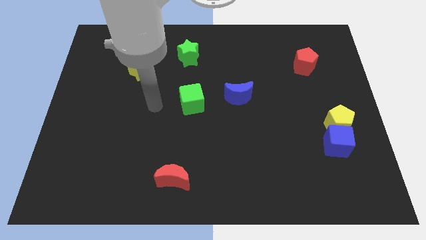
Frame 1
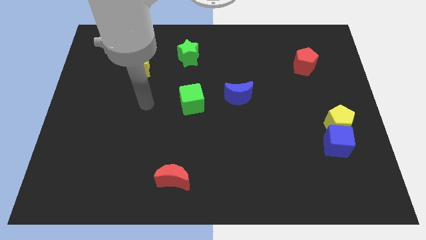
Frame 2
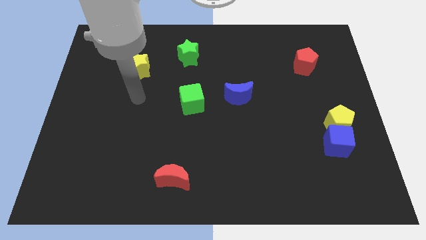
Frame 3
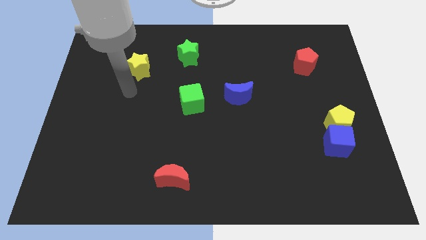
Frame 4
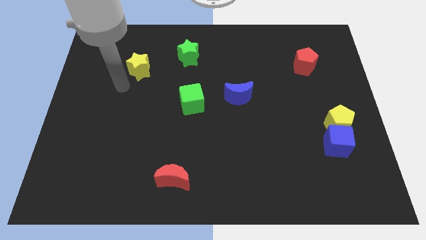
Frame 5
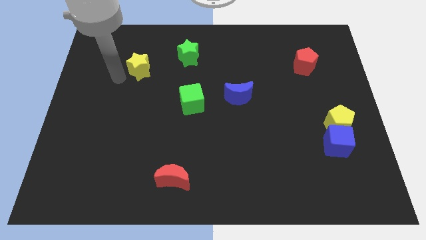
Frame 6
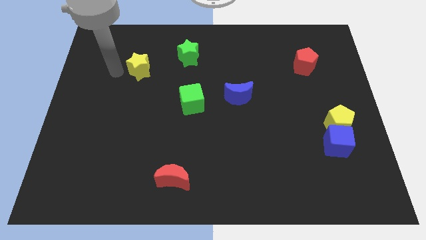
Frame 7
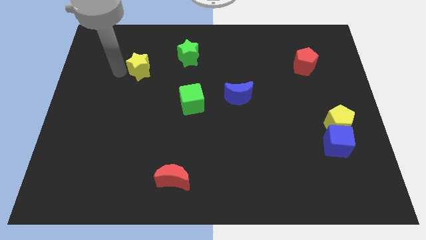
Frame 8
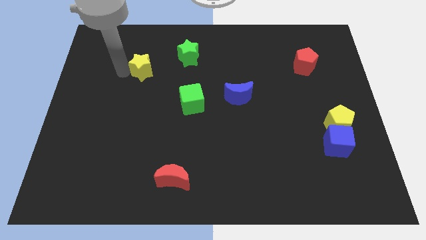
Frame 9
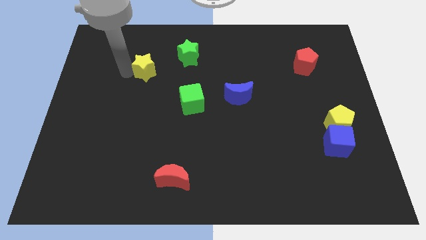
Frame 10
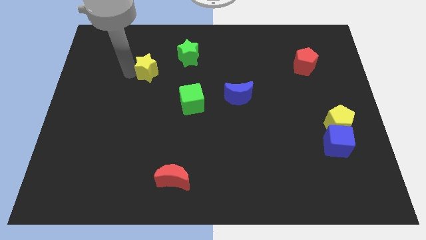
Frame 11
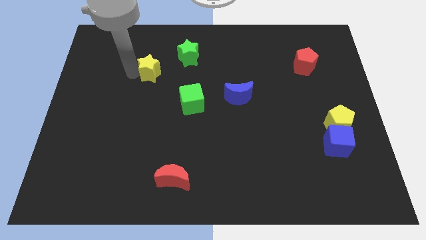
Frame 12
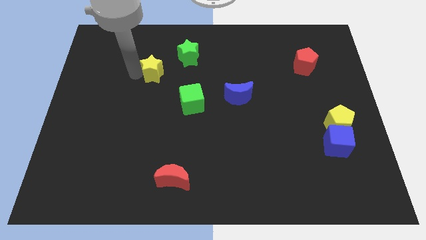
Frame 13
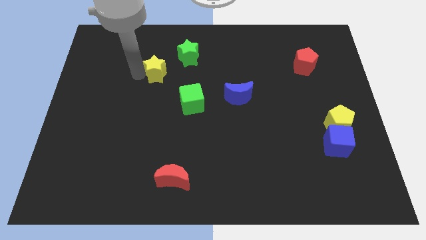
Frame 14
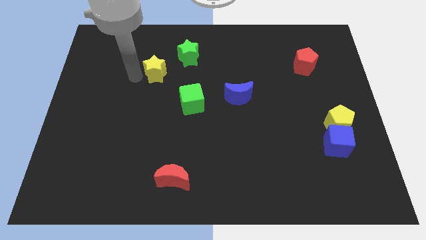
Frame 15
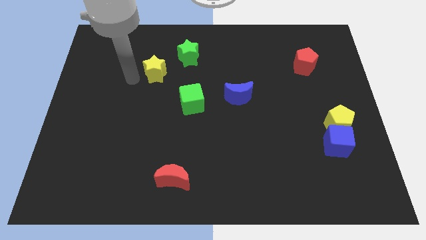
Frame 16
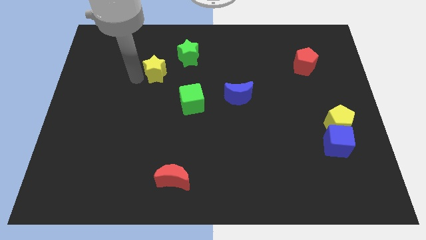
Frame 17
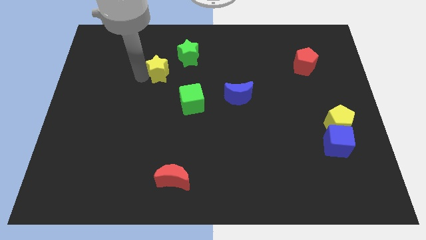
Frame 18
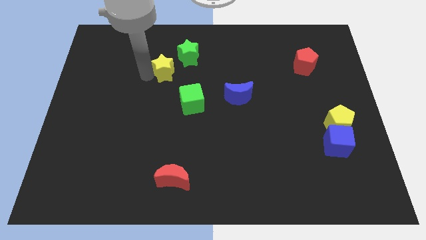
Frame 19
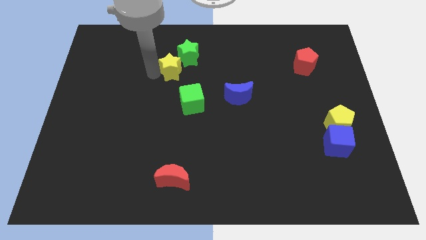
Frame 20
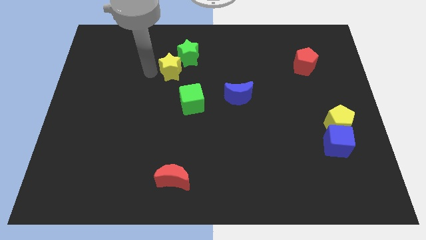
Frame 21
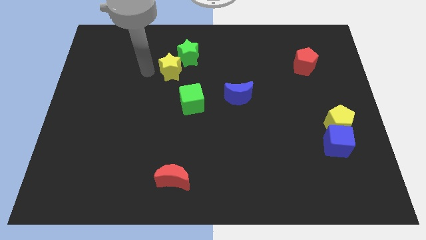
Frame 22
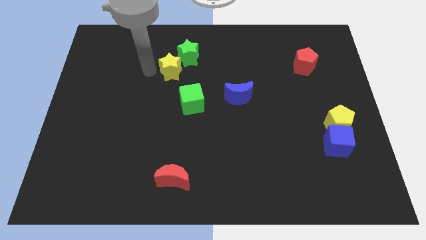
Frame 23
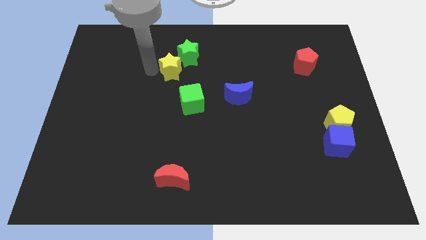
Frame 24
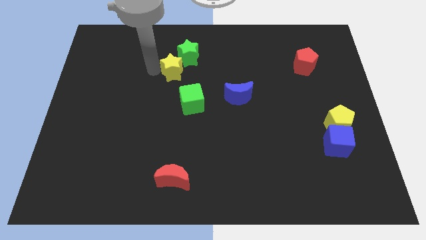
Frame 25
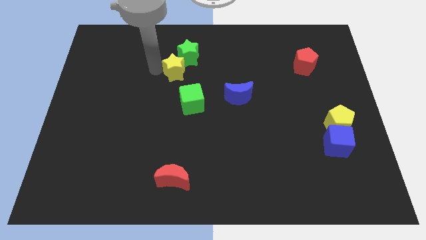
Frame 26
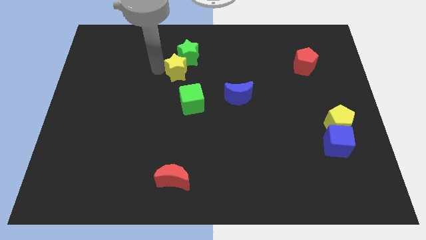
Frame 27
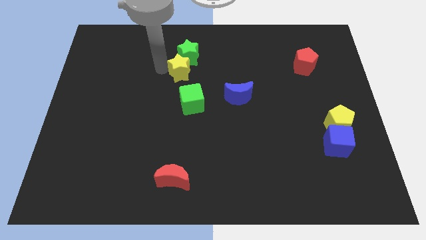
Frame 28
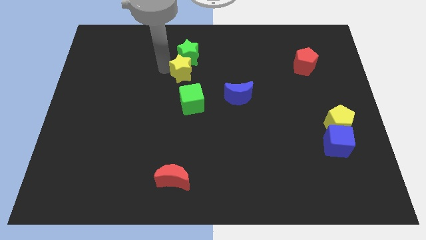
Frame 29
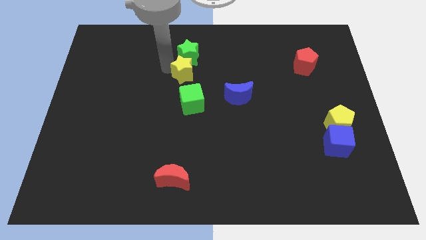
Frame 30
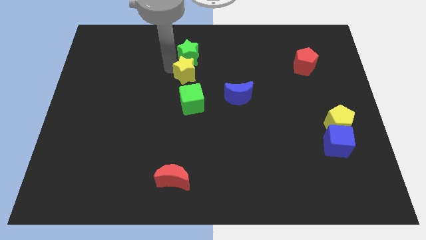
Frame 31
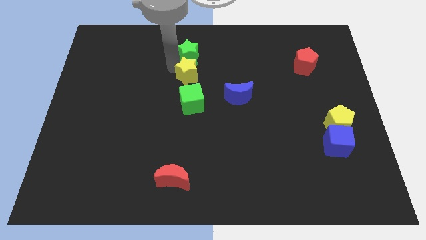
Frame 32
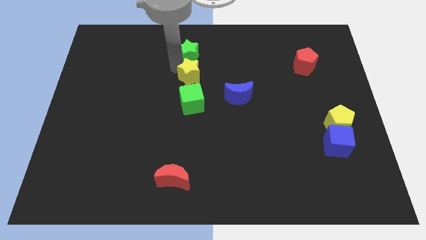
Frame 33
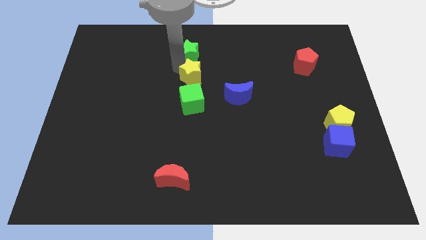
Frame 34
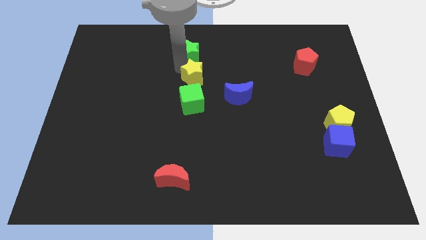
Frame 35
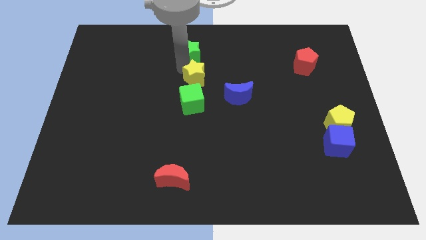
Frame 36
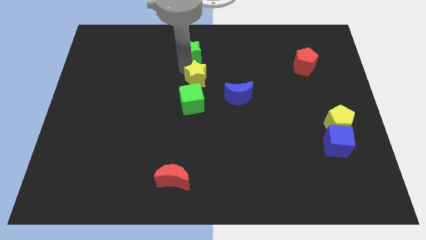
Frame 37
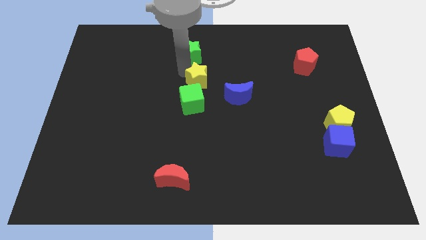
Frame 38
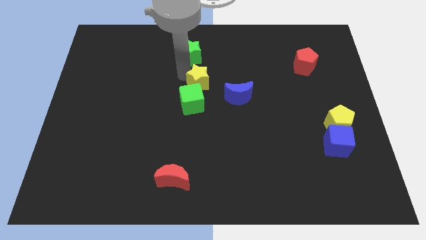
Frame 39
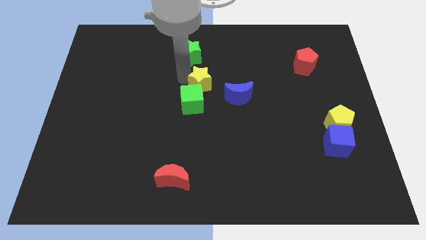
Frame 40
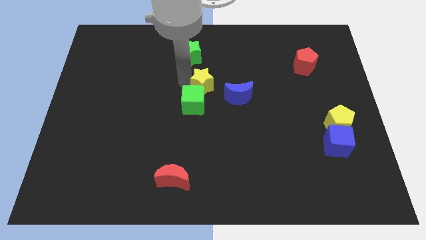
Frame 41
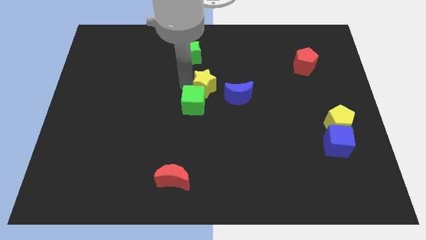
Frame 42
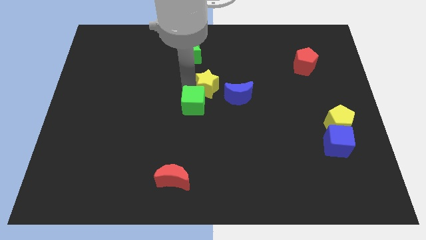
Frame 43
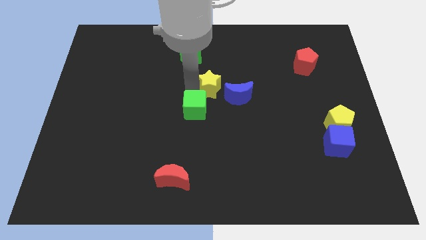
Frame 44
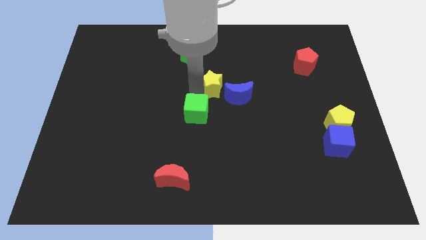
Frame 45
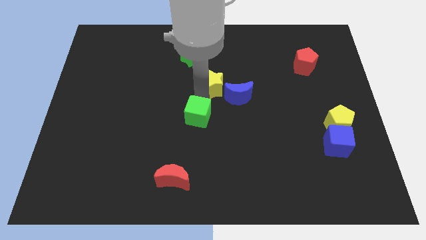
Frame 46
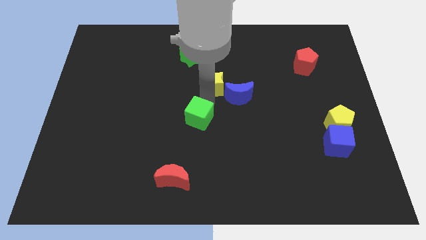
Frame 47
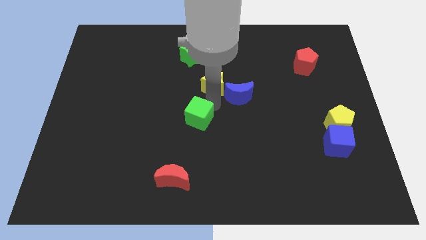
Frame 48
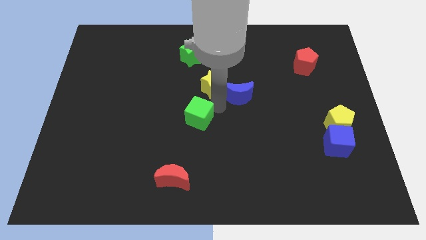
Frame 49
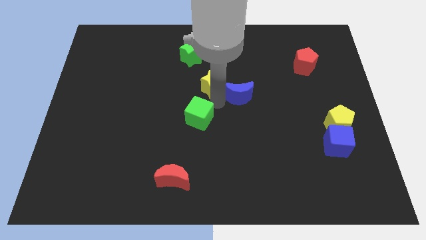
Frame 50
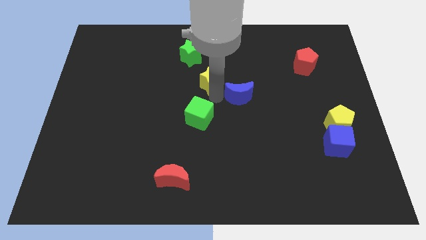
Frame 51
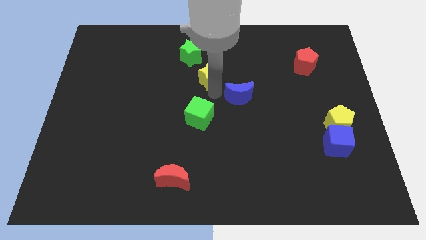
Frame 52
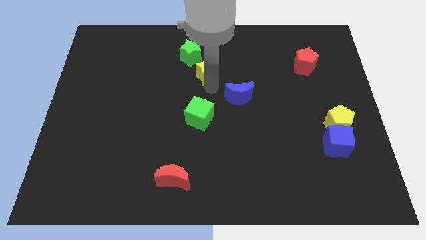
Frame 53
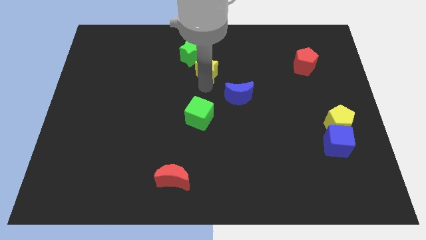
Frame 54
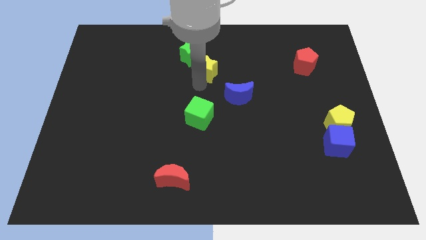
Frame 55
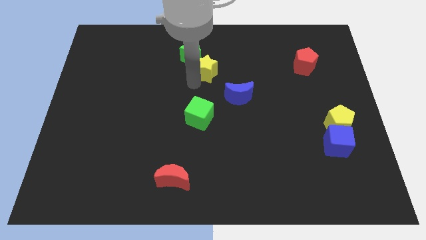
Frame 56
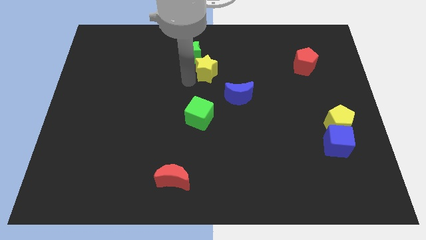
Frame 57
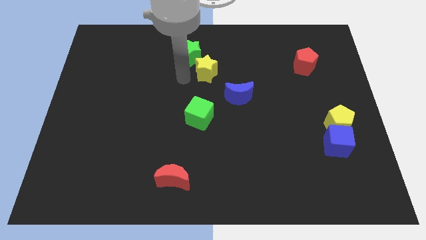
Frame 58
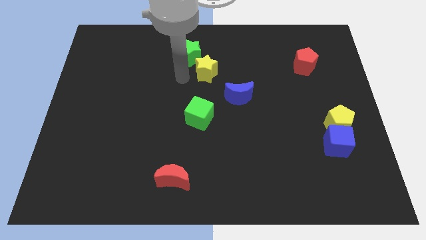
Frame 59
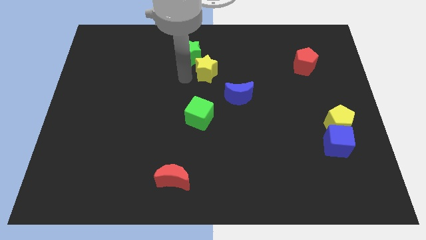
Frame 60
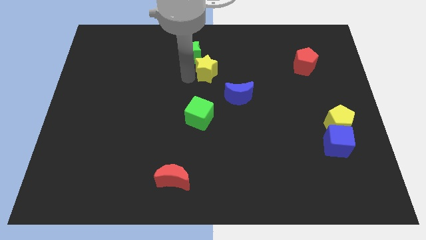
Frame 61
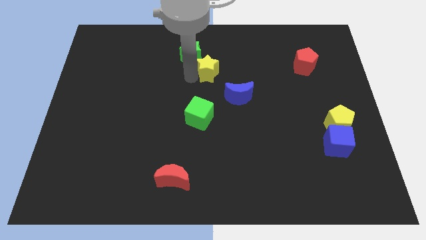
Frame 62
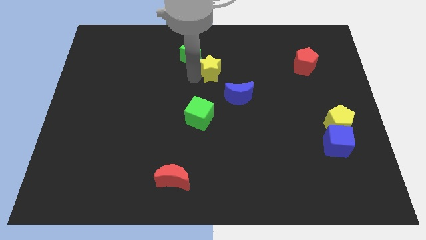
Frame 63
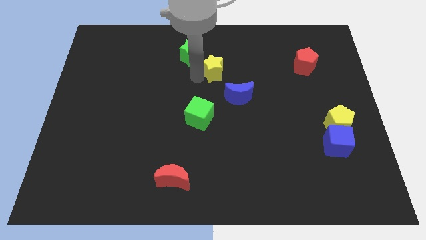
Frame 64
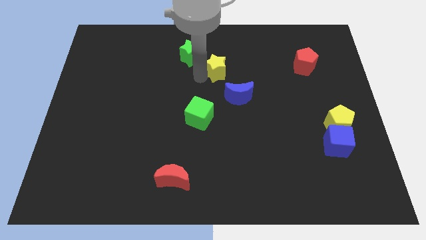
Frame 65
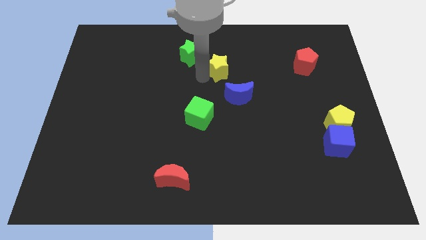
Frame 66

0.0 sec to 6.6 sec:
push the yellow star to the right

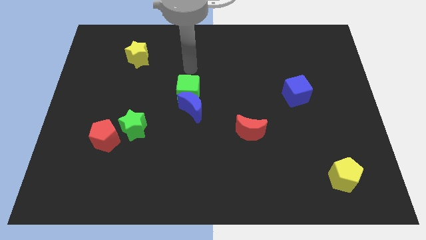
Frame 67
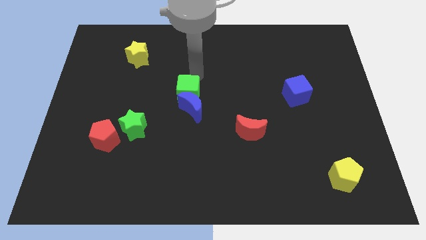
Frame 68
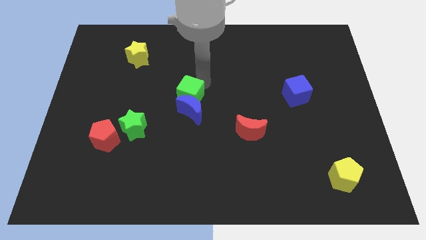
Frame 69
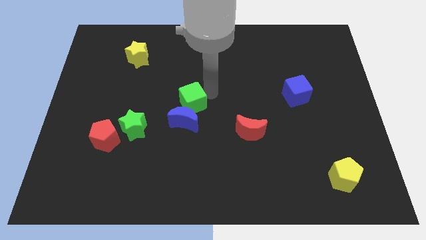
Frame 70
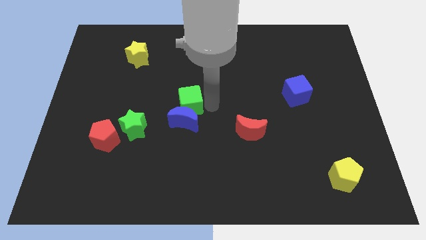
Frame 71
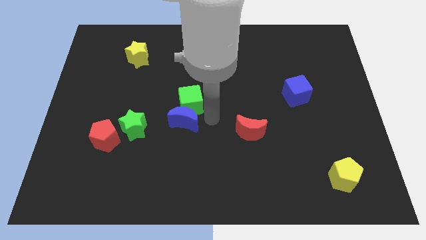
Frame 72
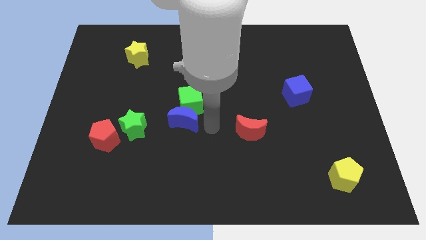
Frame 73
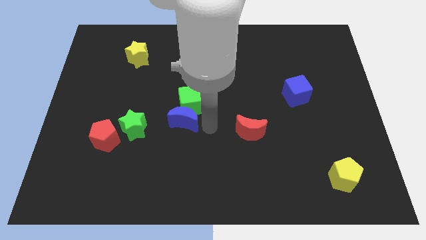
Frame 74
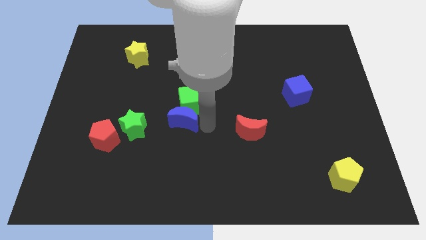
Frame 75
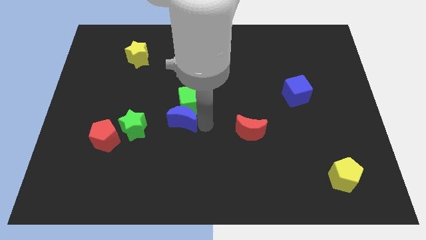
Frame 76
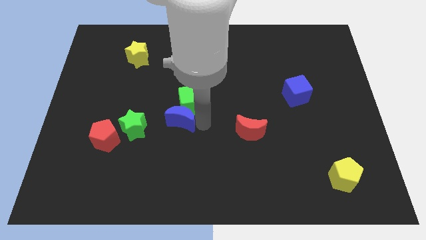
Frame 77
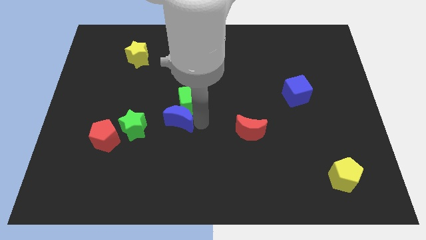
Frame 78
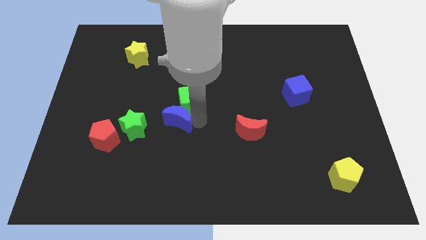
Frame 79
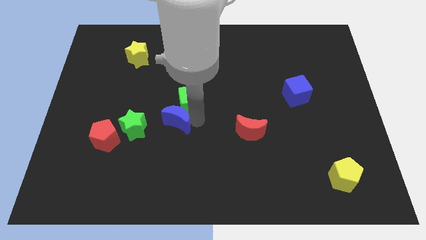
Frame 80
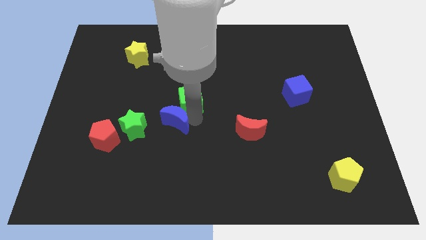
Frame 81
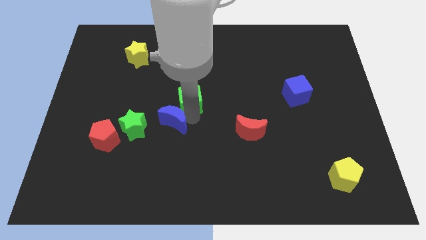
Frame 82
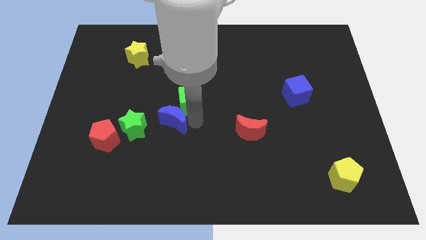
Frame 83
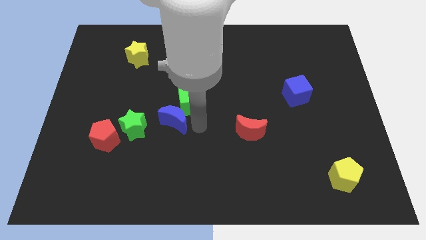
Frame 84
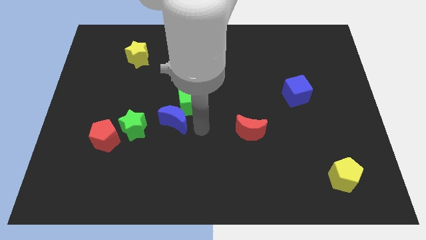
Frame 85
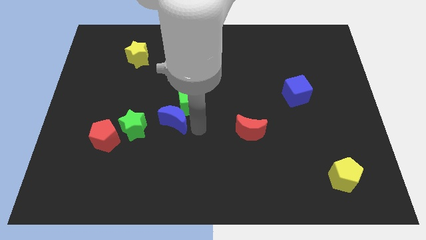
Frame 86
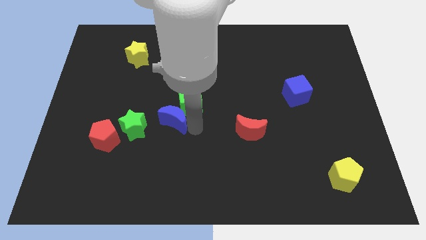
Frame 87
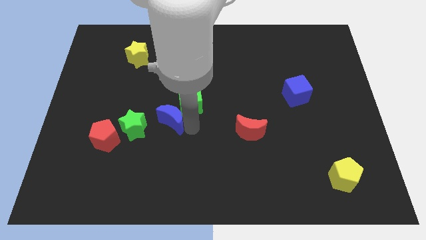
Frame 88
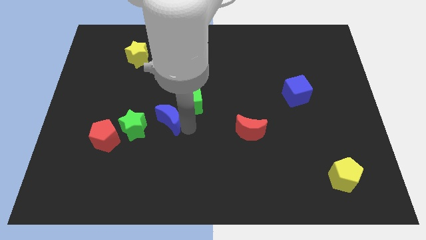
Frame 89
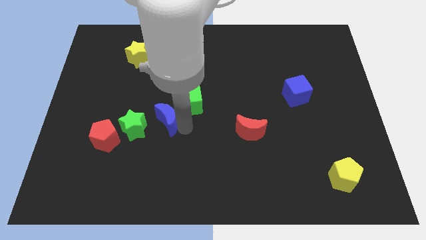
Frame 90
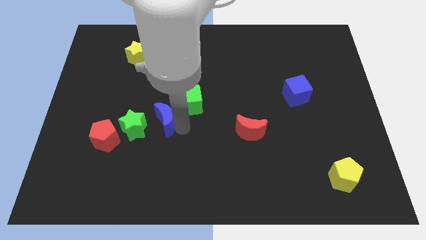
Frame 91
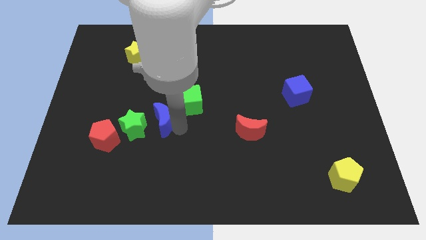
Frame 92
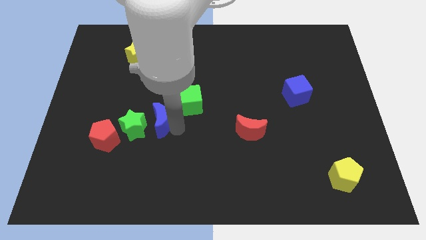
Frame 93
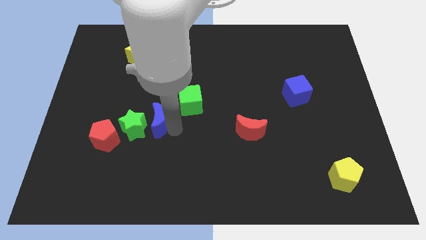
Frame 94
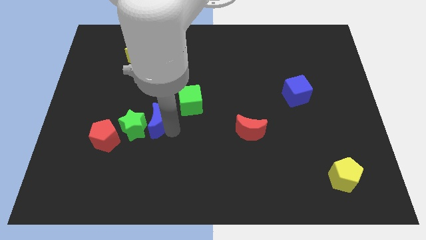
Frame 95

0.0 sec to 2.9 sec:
push the blue moon somewhat left
